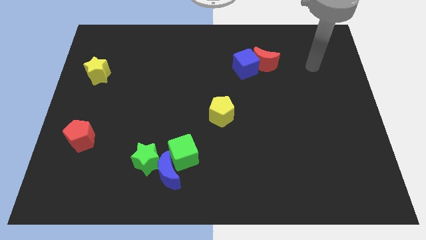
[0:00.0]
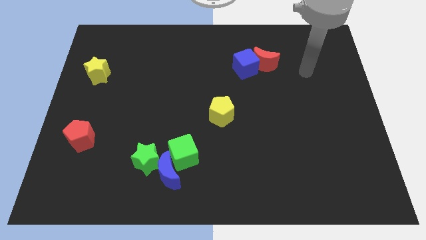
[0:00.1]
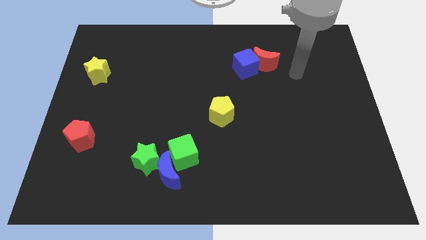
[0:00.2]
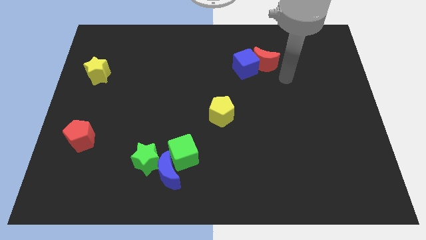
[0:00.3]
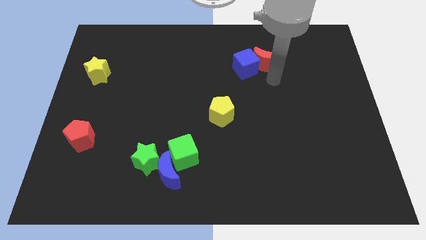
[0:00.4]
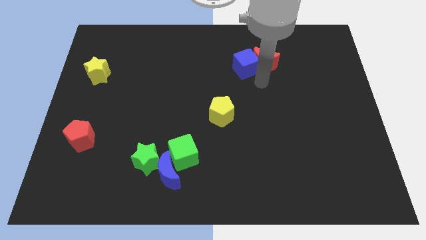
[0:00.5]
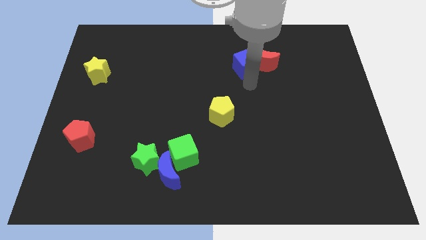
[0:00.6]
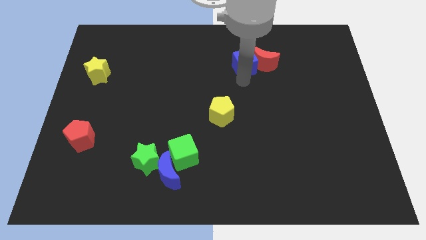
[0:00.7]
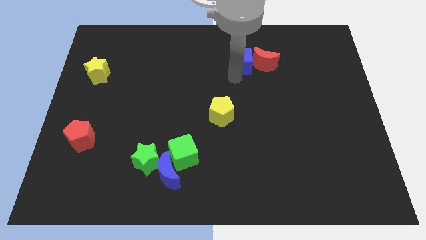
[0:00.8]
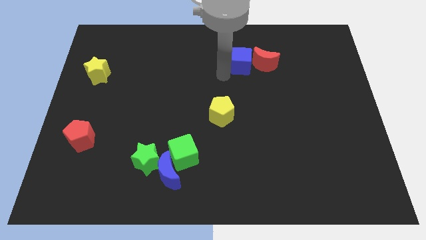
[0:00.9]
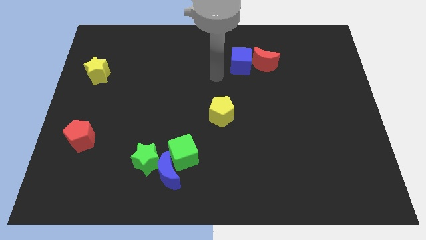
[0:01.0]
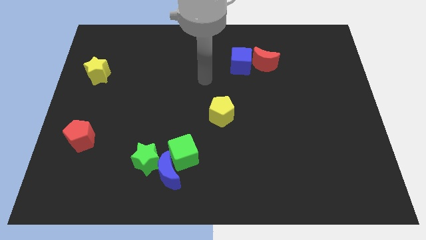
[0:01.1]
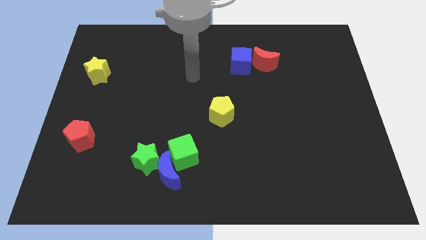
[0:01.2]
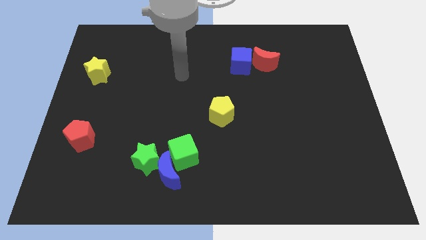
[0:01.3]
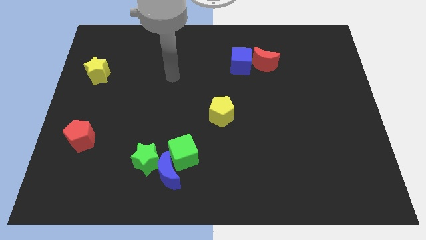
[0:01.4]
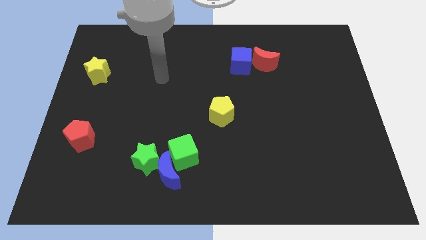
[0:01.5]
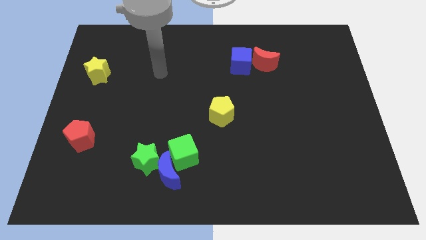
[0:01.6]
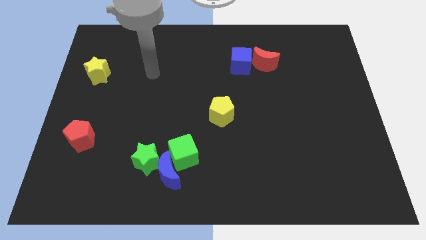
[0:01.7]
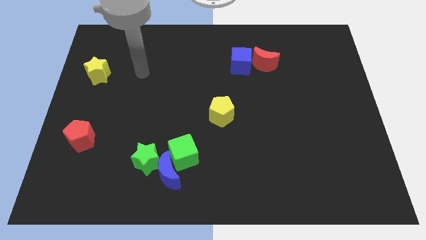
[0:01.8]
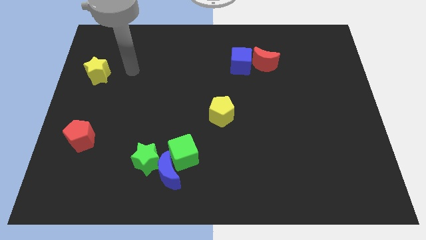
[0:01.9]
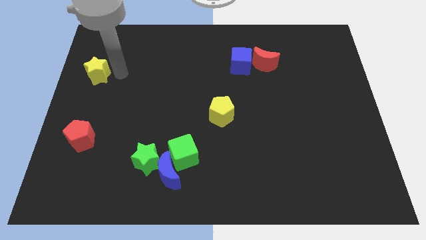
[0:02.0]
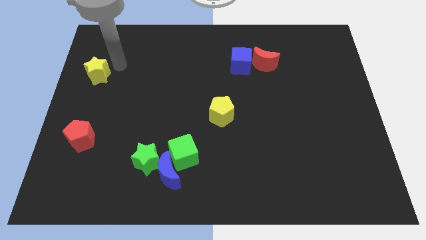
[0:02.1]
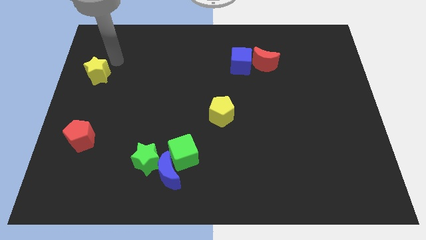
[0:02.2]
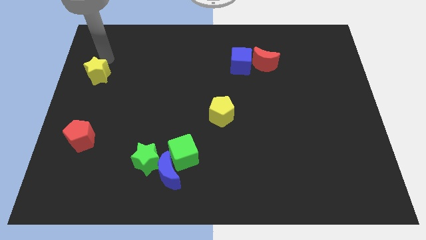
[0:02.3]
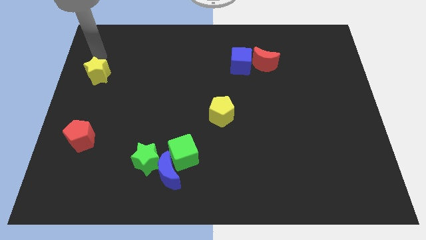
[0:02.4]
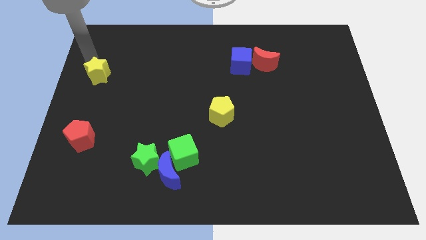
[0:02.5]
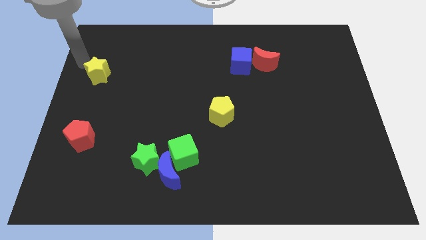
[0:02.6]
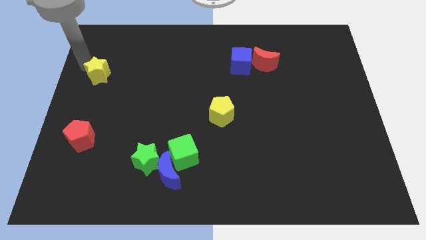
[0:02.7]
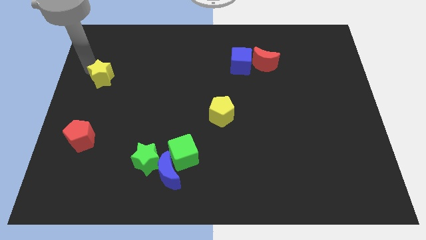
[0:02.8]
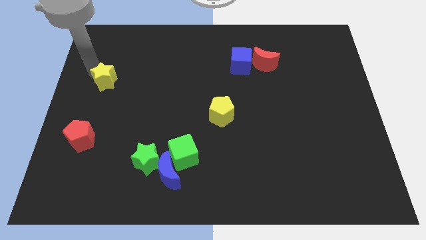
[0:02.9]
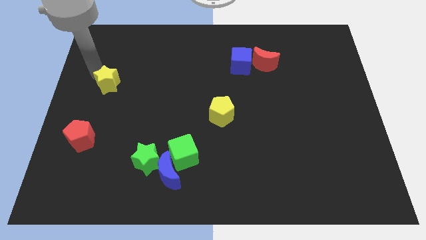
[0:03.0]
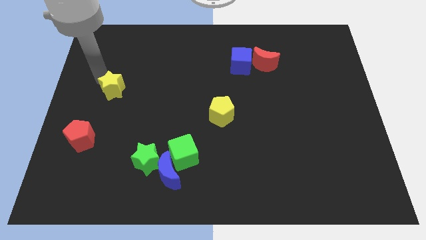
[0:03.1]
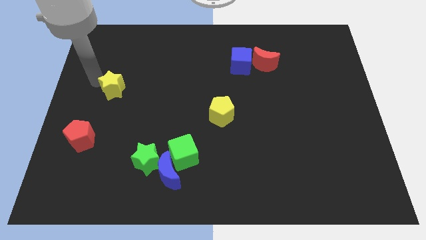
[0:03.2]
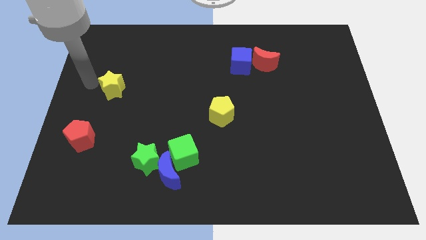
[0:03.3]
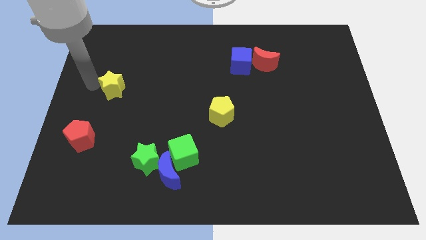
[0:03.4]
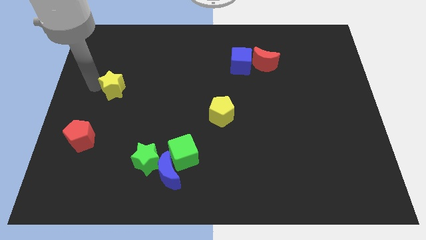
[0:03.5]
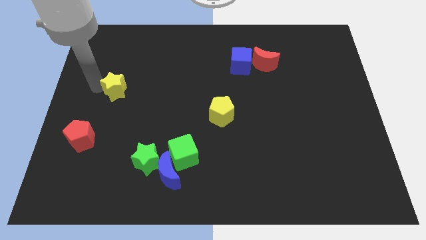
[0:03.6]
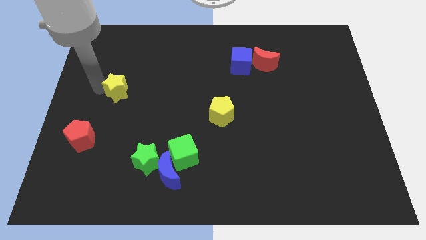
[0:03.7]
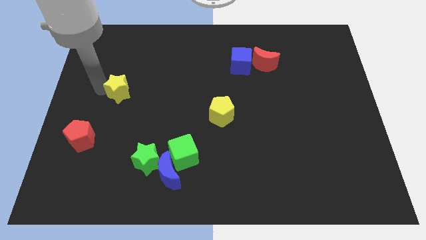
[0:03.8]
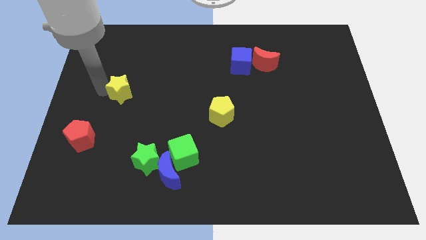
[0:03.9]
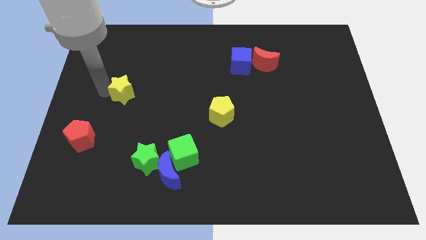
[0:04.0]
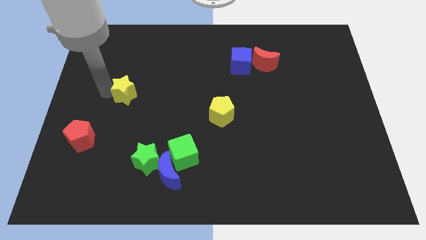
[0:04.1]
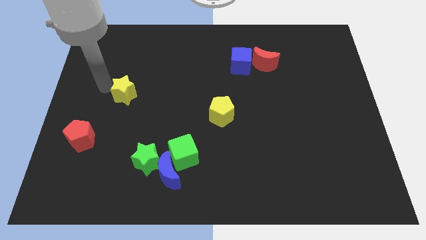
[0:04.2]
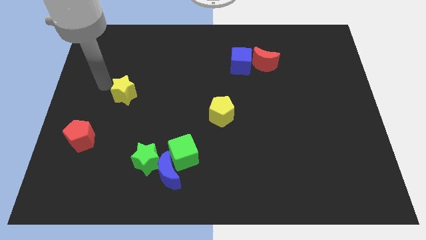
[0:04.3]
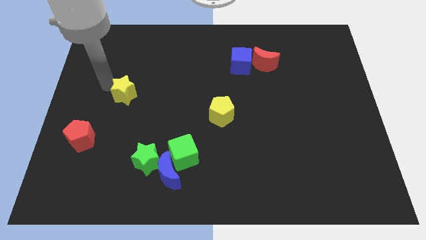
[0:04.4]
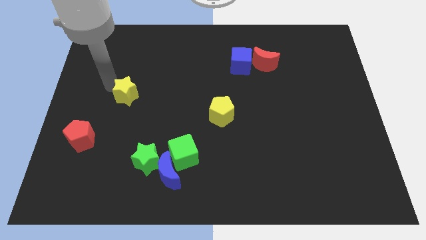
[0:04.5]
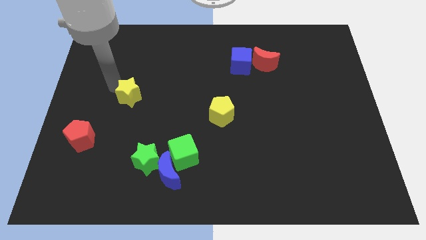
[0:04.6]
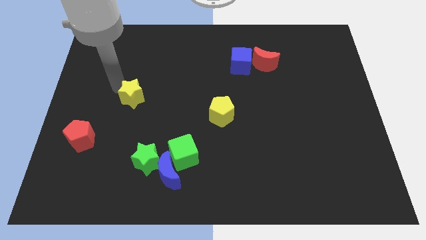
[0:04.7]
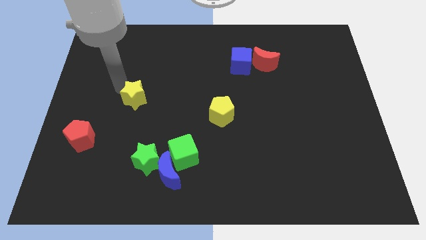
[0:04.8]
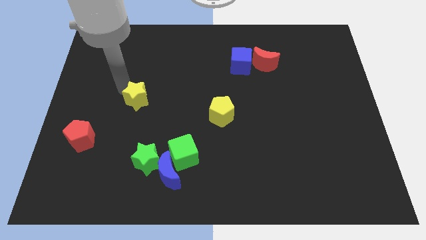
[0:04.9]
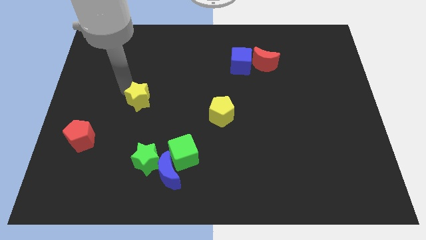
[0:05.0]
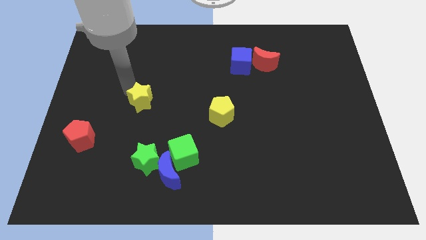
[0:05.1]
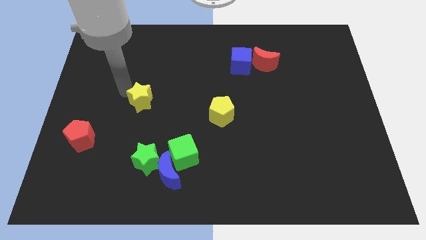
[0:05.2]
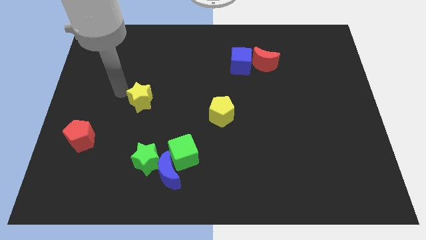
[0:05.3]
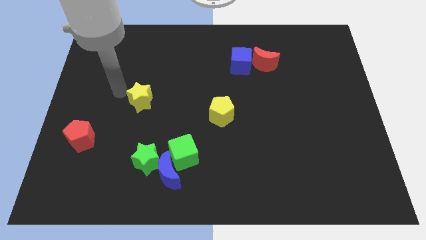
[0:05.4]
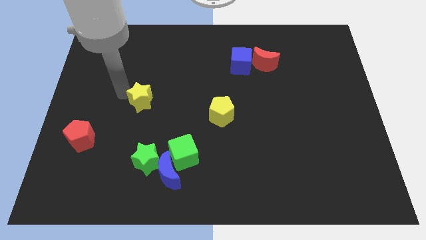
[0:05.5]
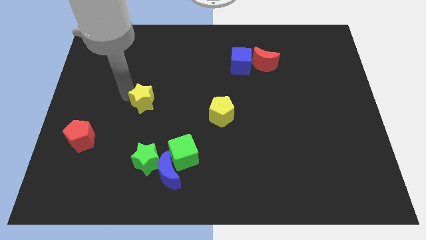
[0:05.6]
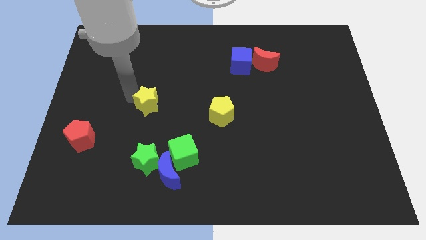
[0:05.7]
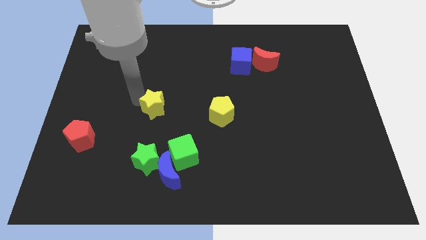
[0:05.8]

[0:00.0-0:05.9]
slide the yellow star just left of the yellow pentagon

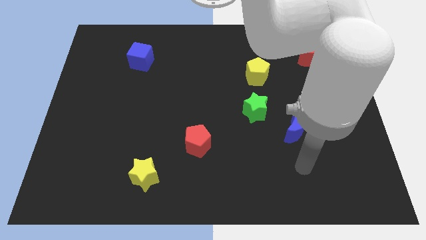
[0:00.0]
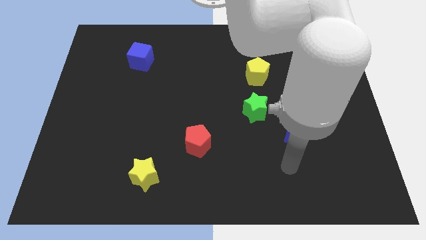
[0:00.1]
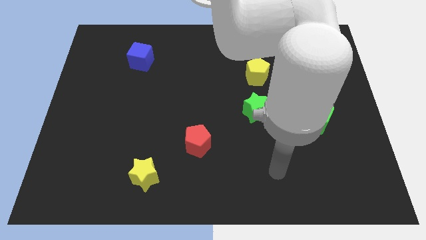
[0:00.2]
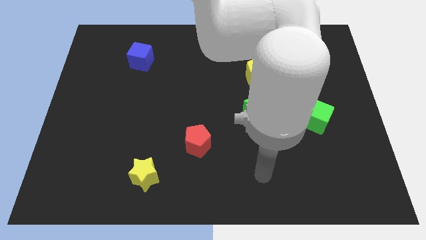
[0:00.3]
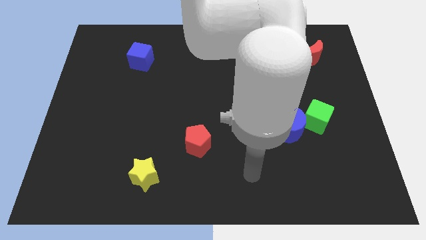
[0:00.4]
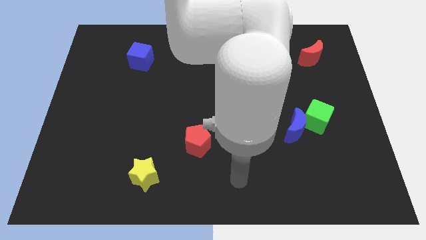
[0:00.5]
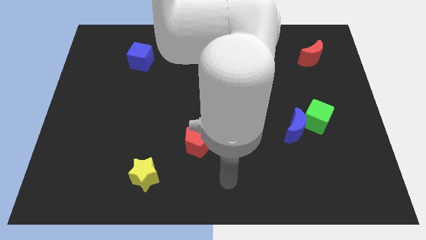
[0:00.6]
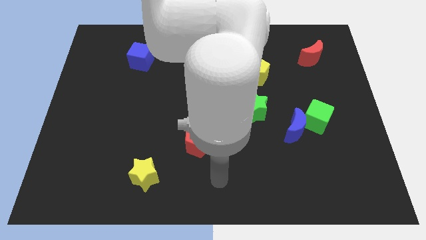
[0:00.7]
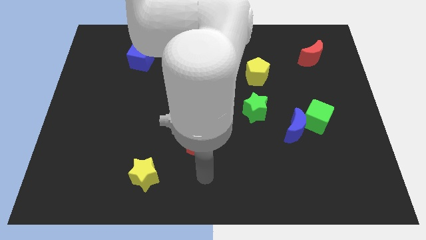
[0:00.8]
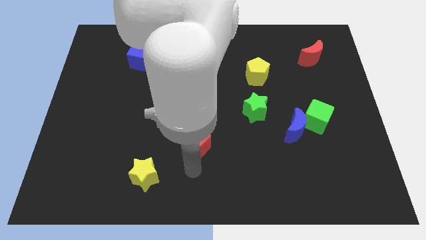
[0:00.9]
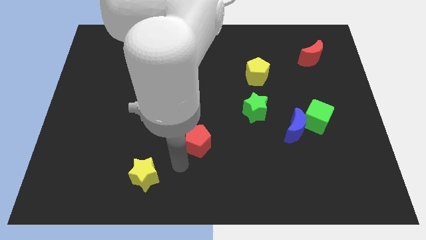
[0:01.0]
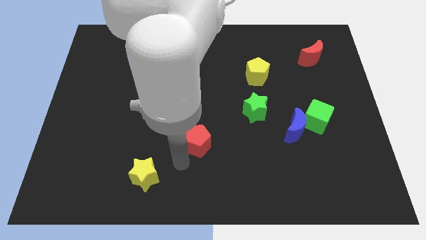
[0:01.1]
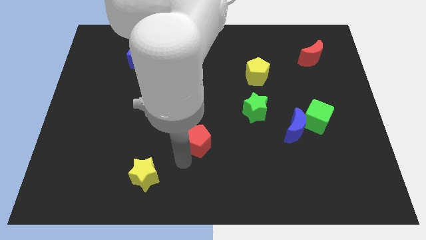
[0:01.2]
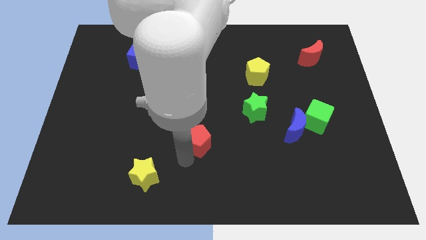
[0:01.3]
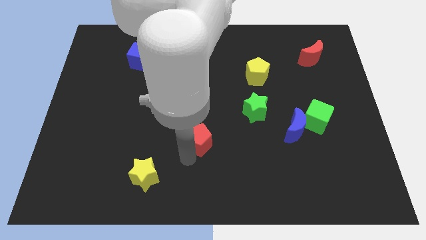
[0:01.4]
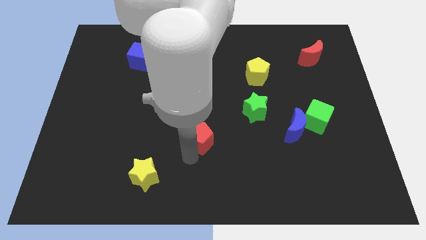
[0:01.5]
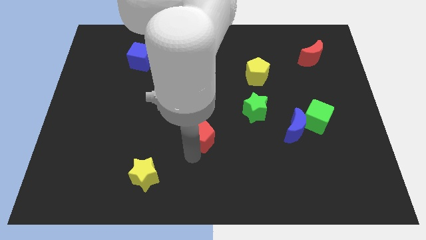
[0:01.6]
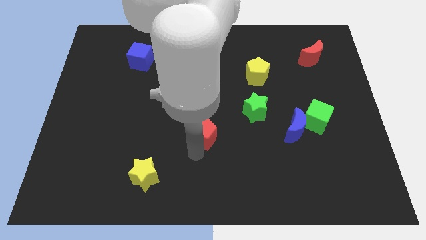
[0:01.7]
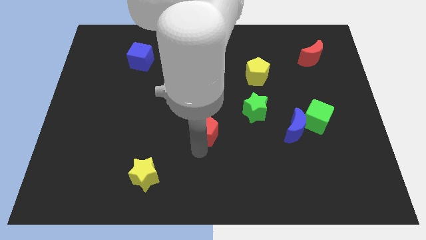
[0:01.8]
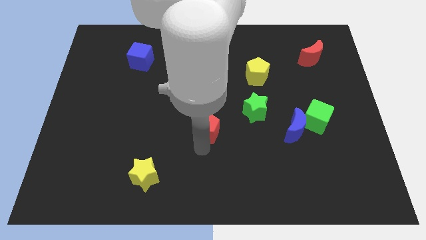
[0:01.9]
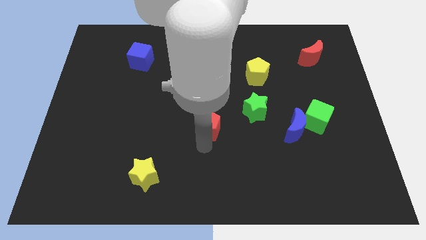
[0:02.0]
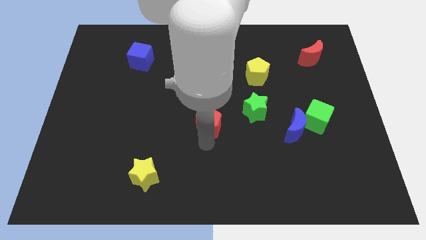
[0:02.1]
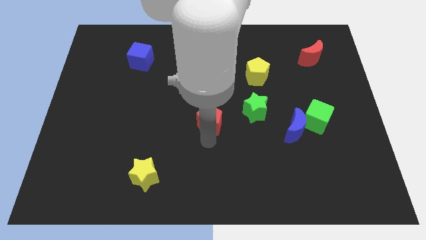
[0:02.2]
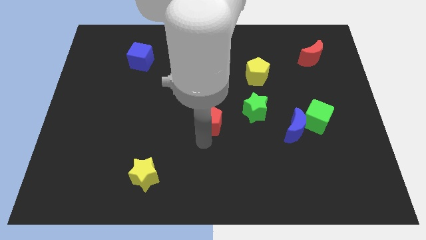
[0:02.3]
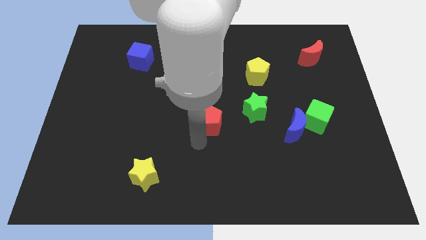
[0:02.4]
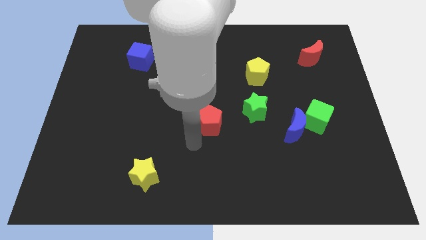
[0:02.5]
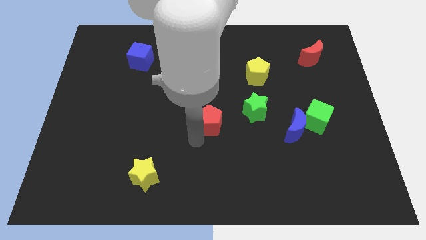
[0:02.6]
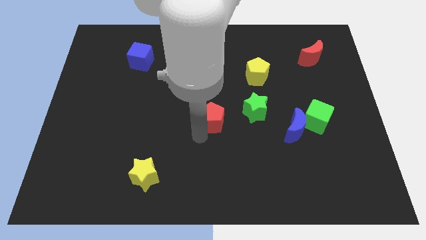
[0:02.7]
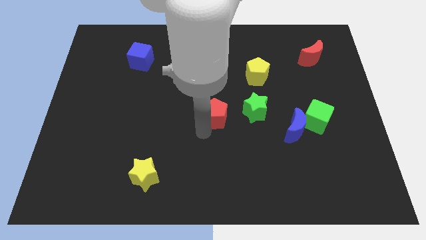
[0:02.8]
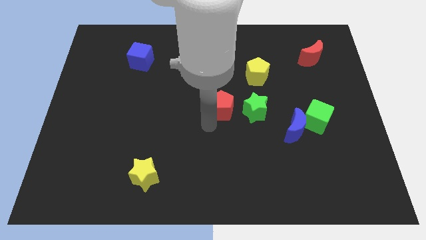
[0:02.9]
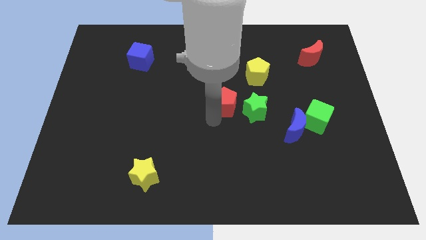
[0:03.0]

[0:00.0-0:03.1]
put the red pentagon to the bottom left side of the yellow pentagon
